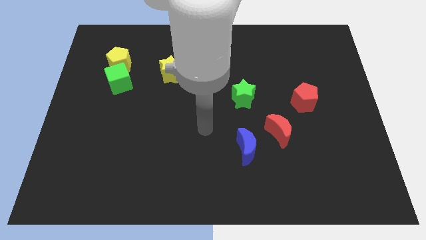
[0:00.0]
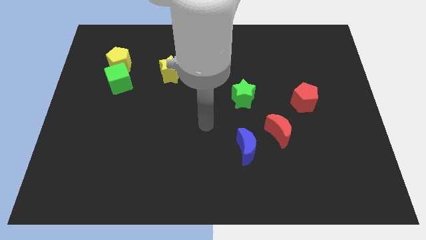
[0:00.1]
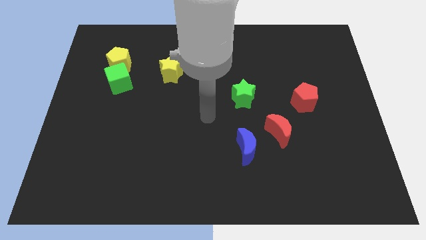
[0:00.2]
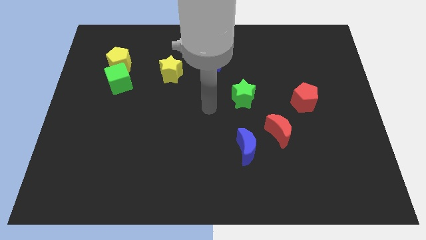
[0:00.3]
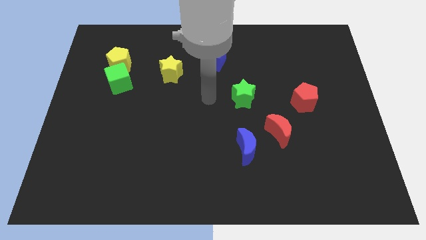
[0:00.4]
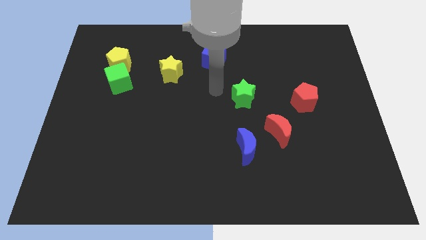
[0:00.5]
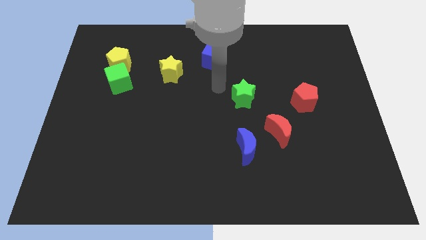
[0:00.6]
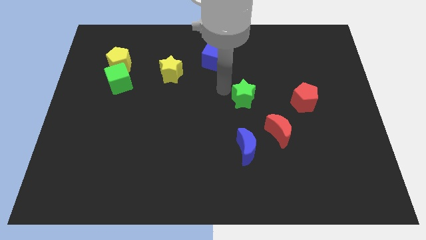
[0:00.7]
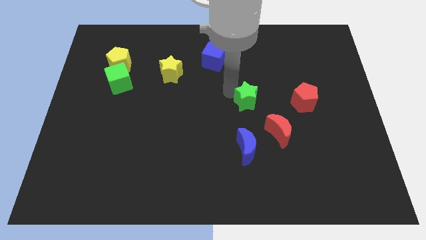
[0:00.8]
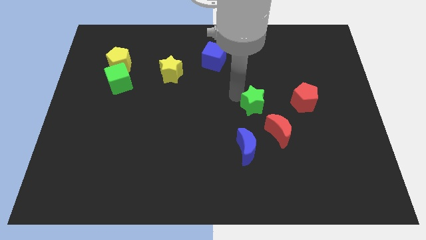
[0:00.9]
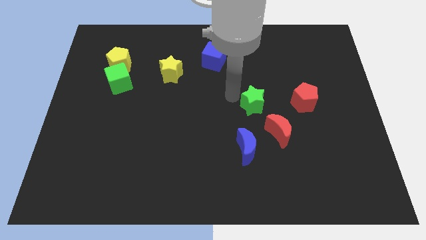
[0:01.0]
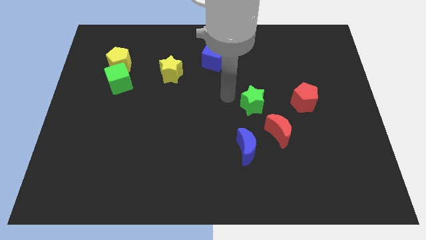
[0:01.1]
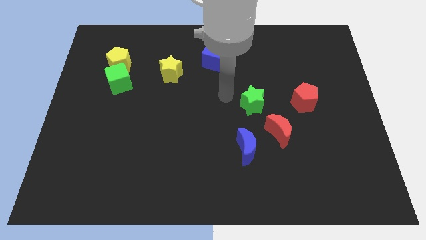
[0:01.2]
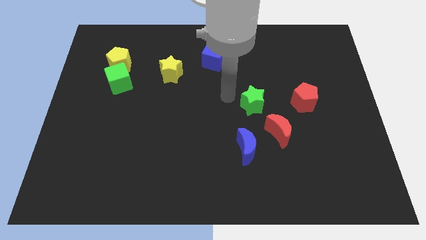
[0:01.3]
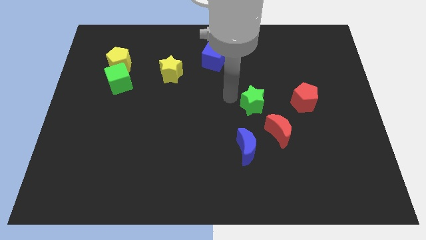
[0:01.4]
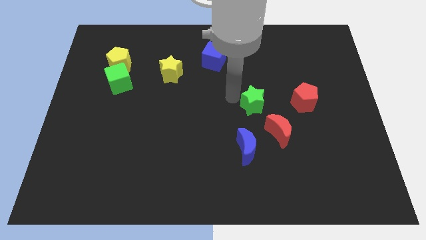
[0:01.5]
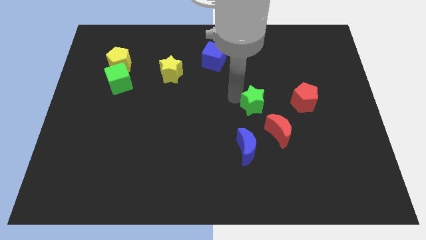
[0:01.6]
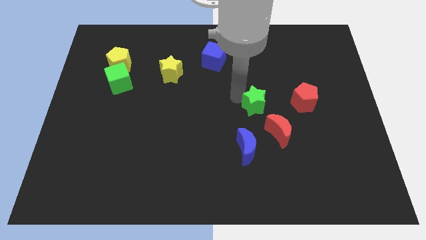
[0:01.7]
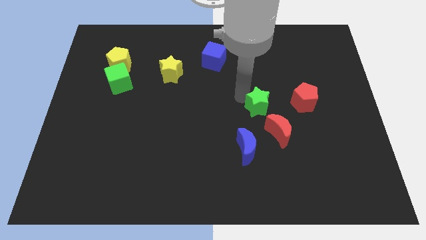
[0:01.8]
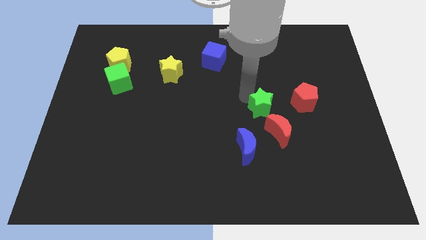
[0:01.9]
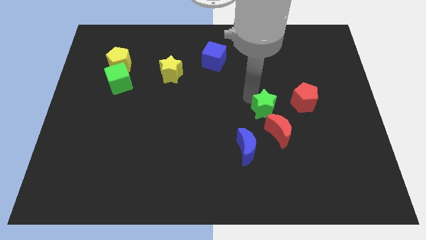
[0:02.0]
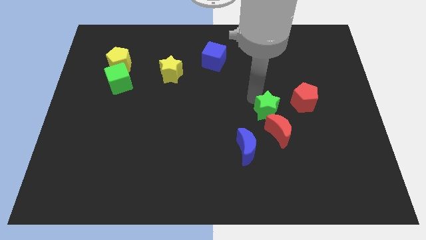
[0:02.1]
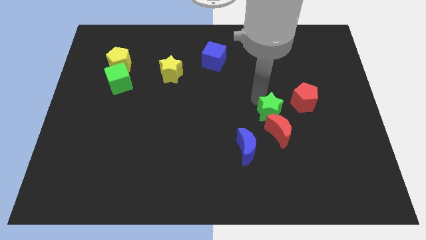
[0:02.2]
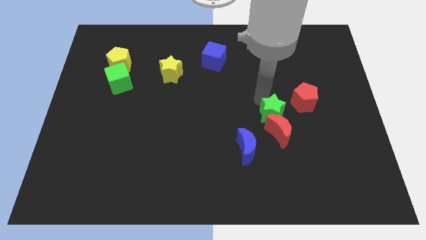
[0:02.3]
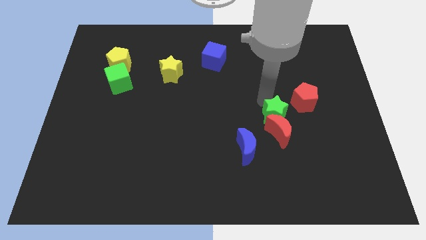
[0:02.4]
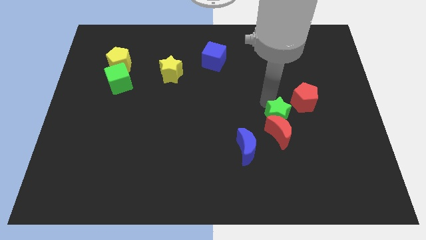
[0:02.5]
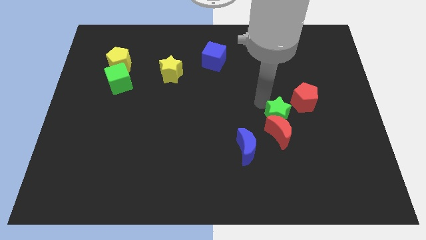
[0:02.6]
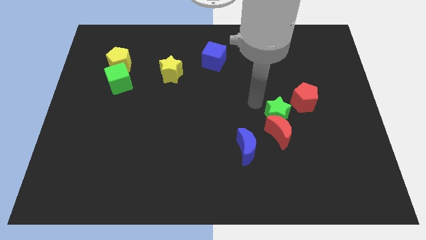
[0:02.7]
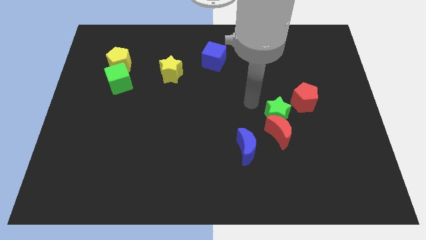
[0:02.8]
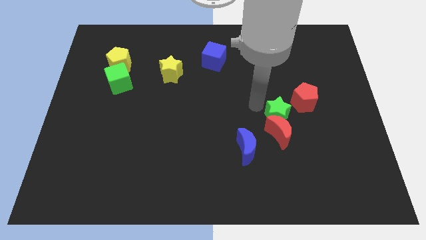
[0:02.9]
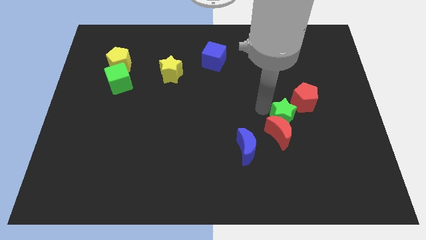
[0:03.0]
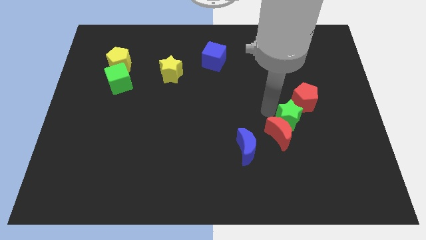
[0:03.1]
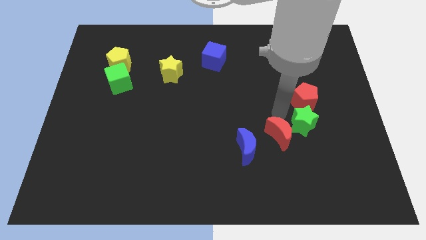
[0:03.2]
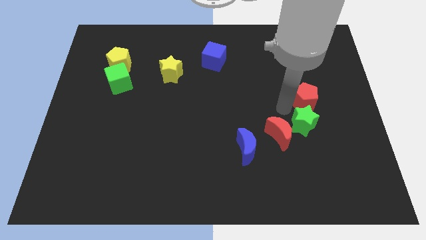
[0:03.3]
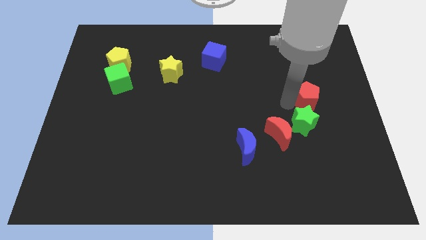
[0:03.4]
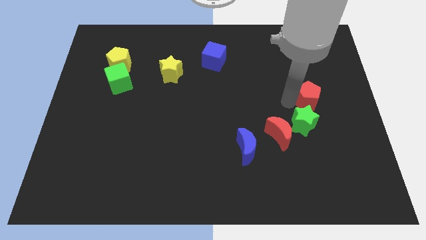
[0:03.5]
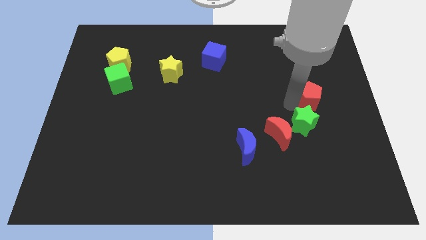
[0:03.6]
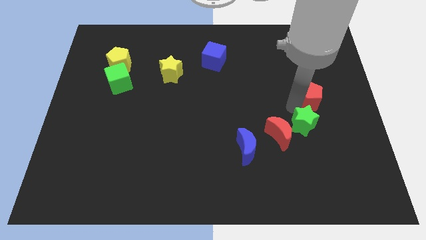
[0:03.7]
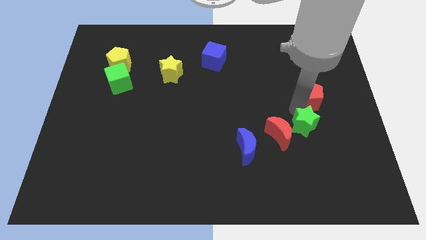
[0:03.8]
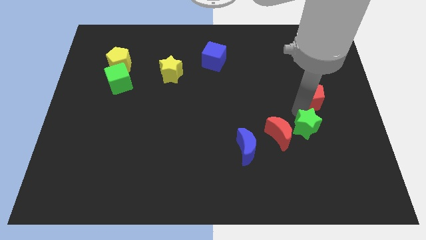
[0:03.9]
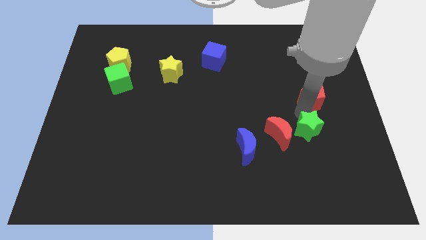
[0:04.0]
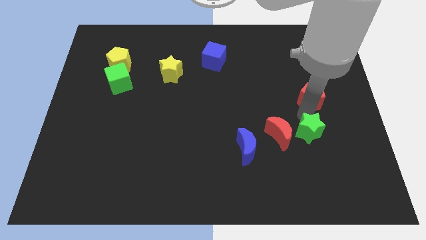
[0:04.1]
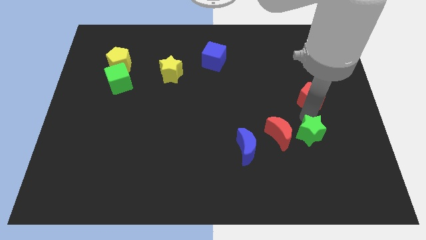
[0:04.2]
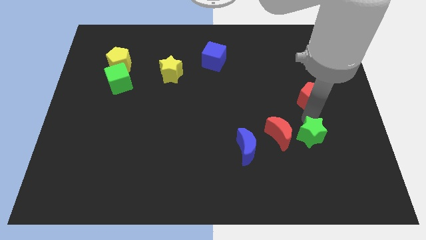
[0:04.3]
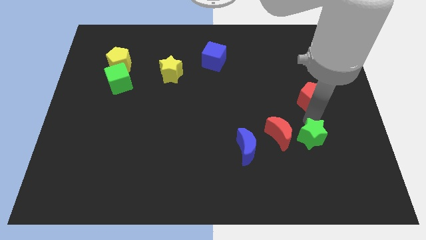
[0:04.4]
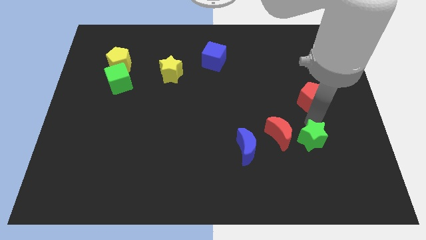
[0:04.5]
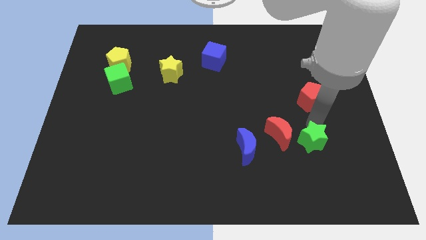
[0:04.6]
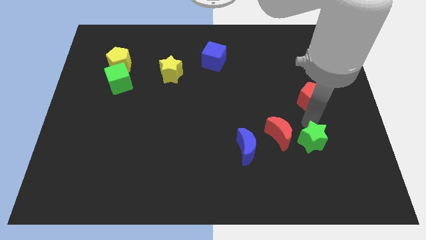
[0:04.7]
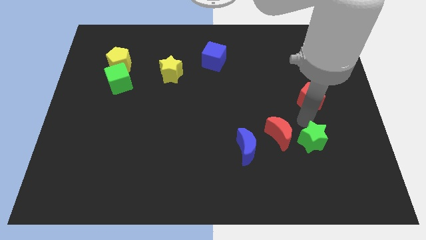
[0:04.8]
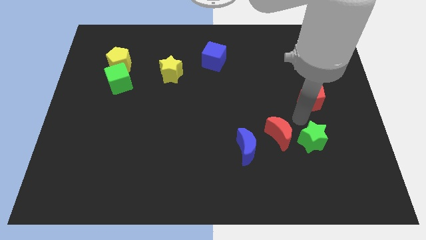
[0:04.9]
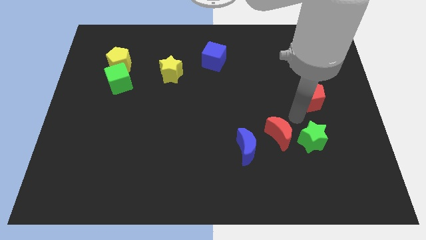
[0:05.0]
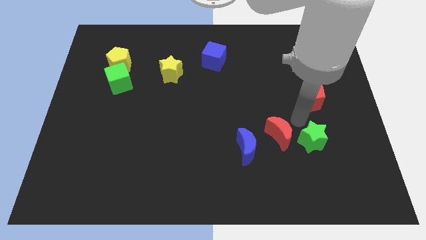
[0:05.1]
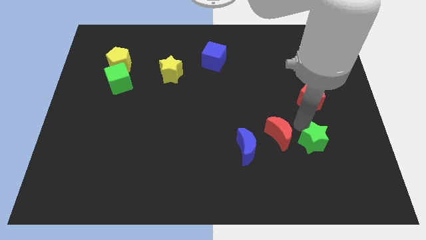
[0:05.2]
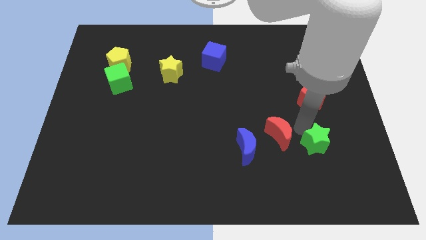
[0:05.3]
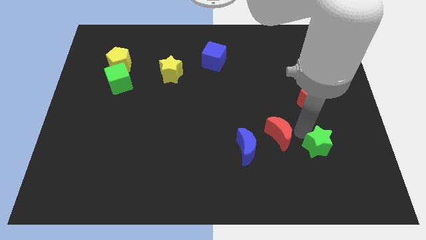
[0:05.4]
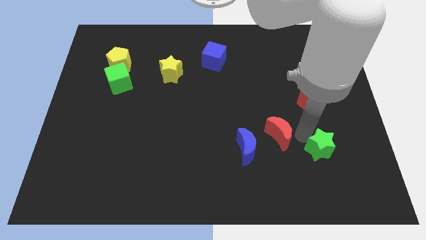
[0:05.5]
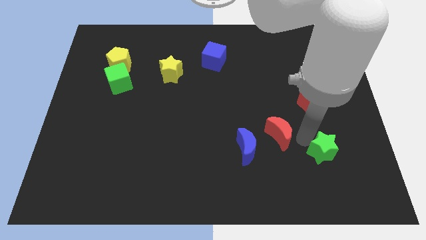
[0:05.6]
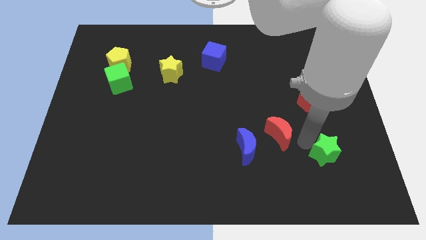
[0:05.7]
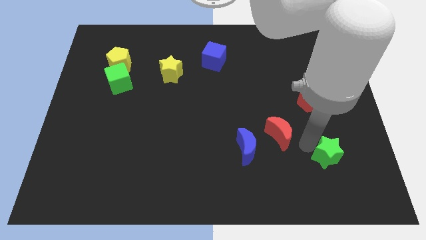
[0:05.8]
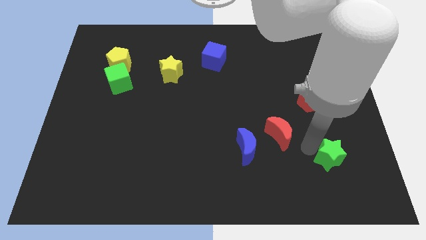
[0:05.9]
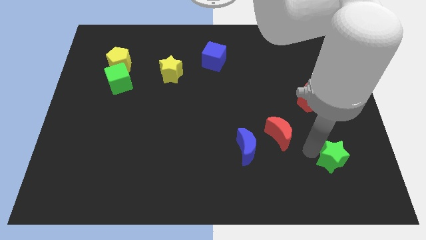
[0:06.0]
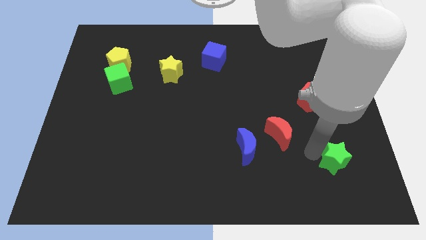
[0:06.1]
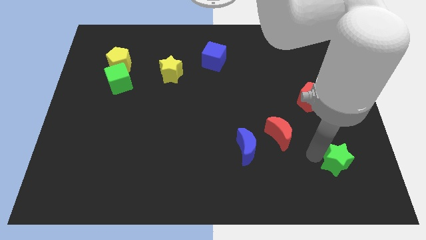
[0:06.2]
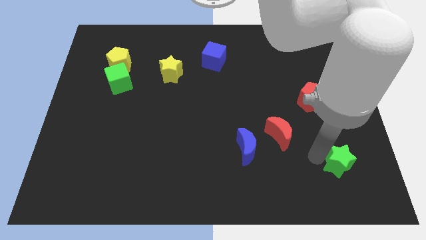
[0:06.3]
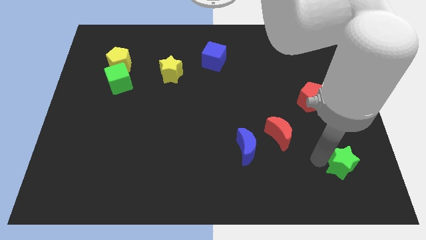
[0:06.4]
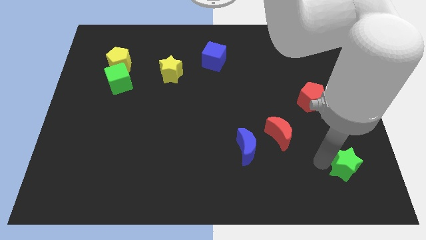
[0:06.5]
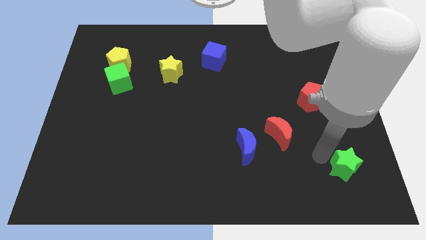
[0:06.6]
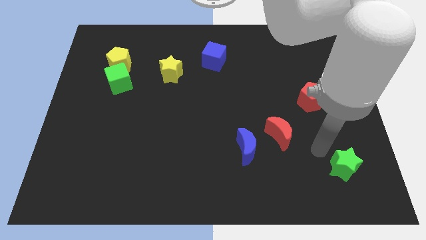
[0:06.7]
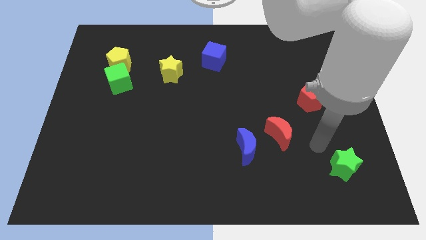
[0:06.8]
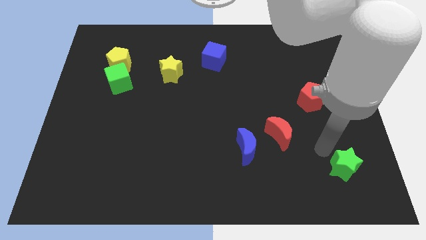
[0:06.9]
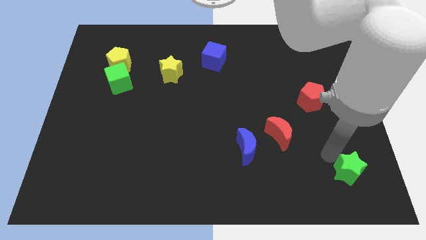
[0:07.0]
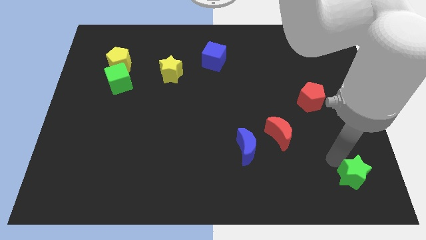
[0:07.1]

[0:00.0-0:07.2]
push the green star to the bottom right
